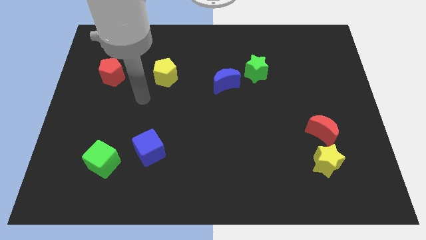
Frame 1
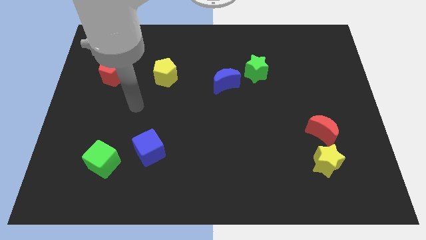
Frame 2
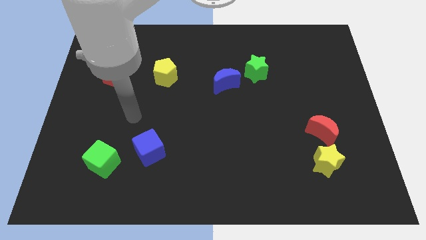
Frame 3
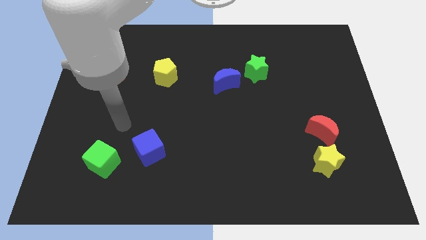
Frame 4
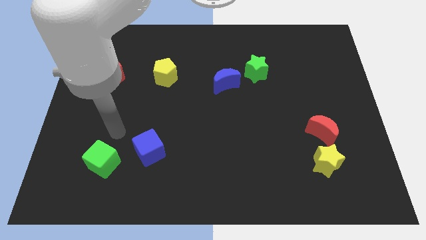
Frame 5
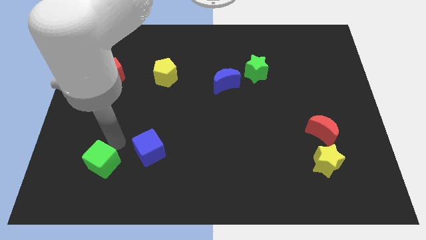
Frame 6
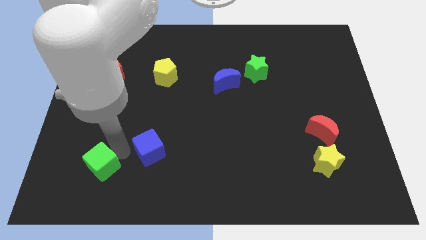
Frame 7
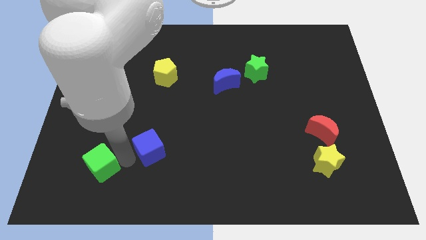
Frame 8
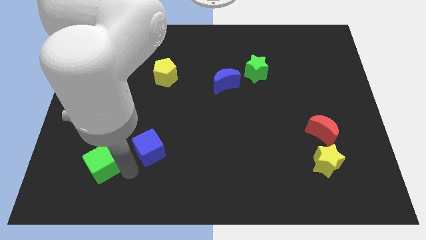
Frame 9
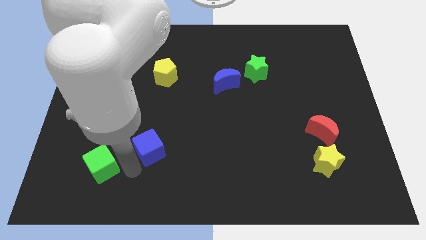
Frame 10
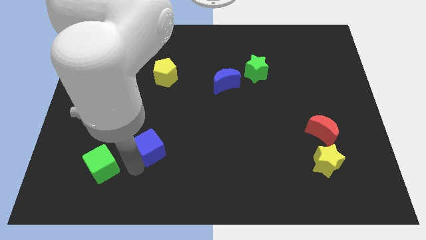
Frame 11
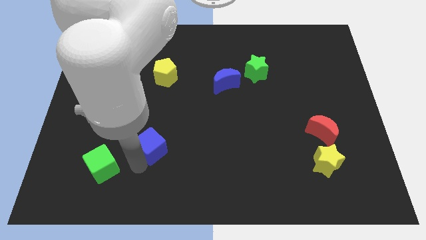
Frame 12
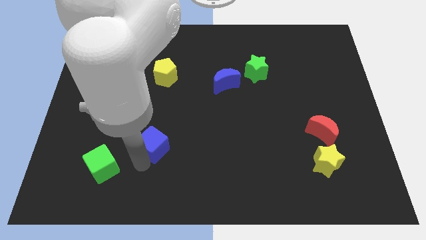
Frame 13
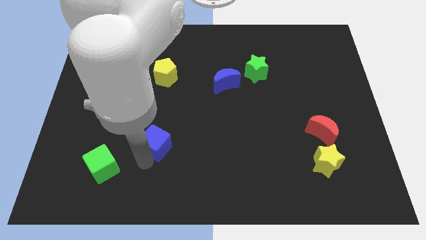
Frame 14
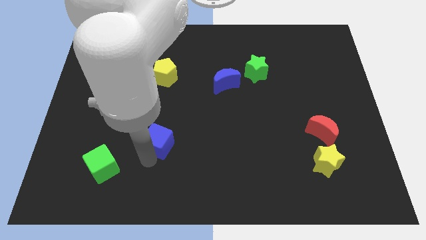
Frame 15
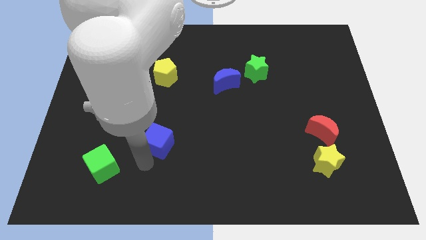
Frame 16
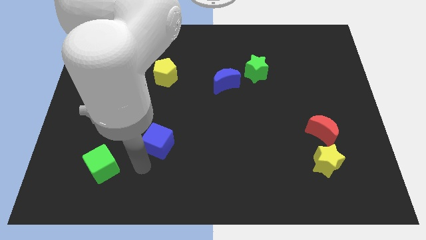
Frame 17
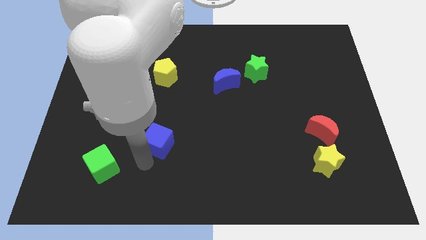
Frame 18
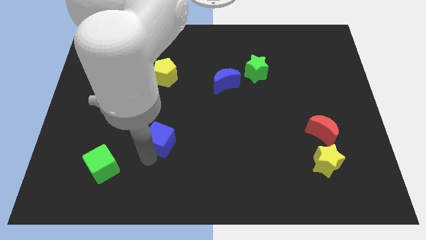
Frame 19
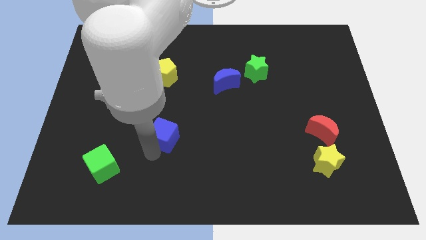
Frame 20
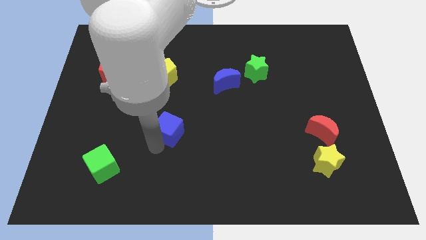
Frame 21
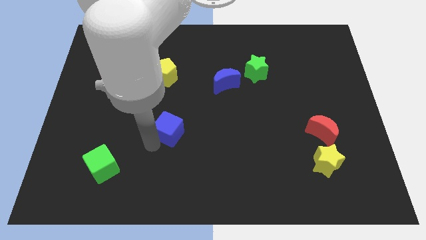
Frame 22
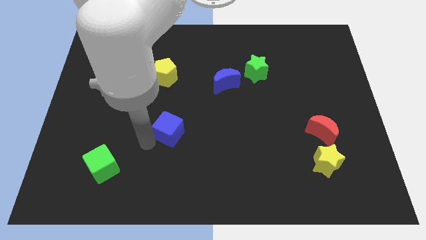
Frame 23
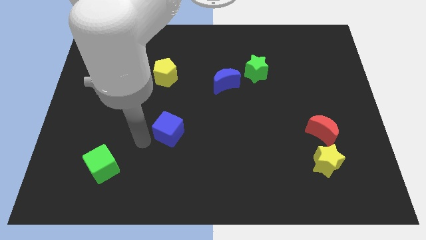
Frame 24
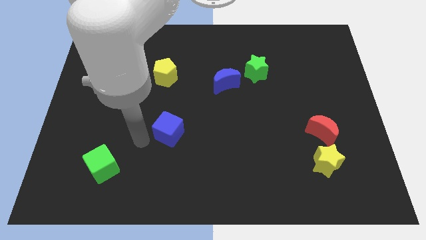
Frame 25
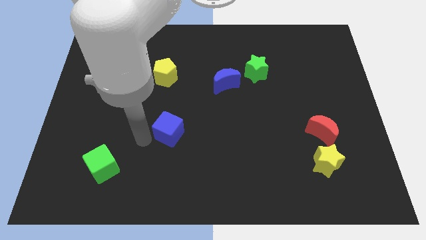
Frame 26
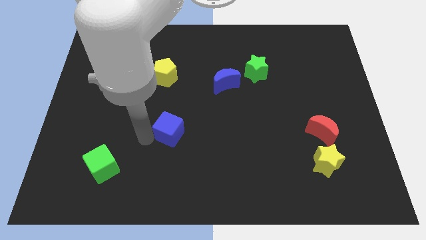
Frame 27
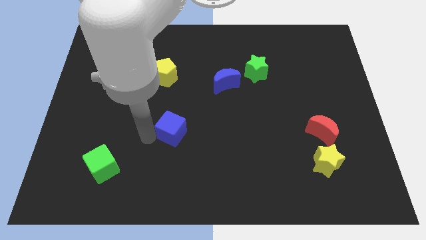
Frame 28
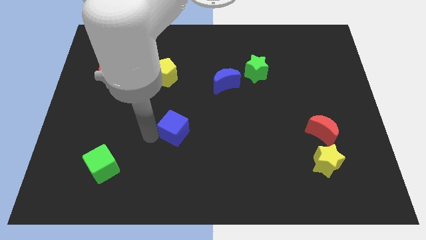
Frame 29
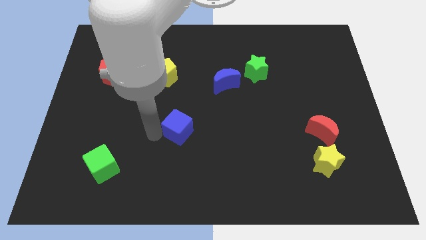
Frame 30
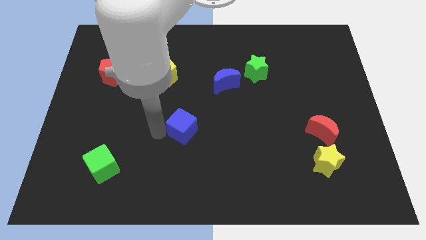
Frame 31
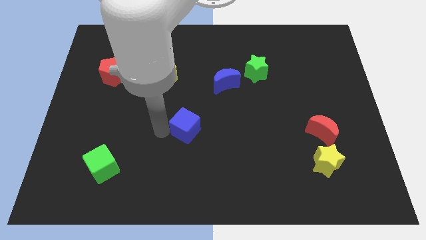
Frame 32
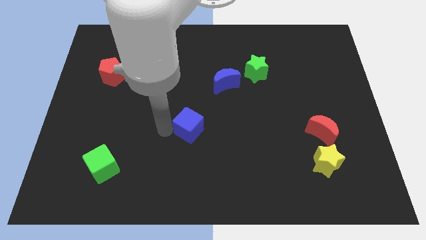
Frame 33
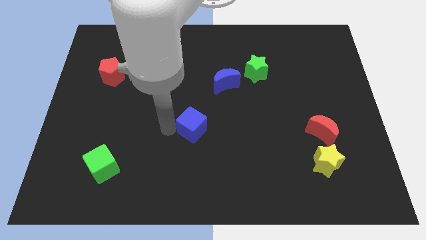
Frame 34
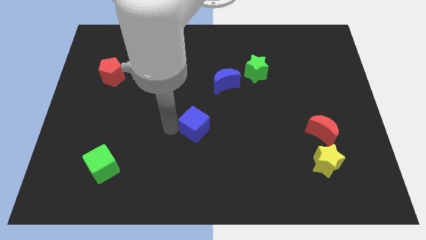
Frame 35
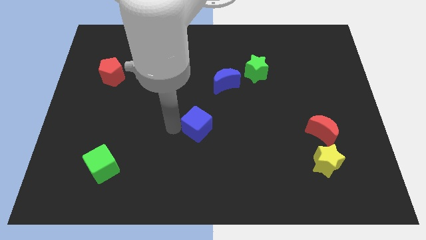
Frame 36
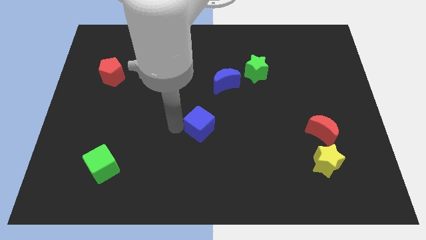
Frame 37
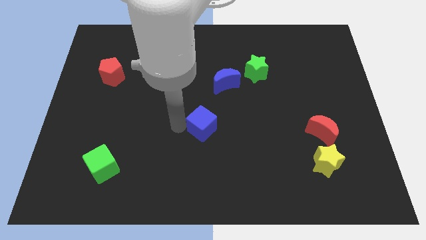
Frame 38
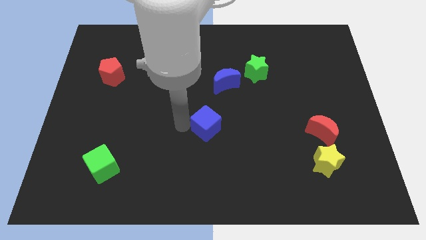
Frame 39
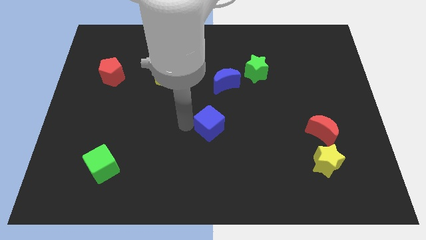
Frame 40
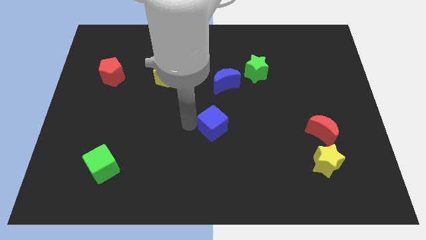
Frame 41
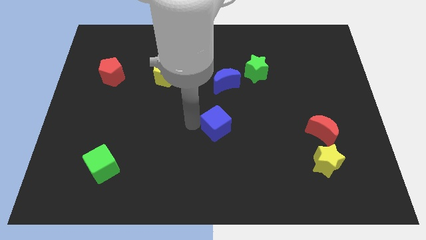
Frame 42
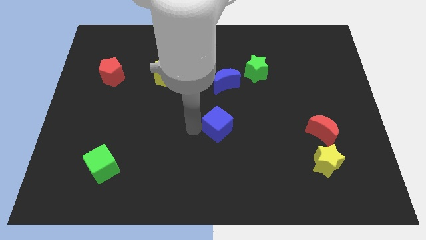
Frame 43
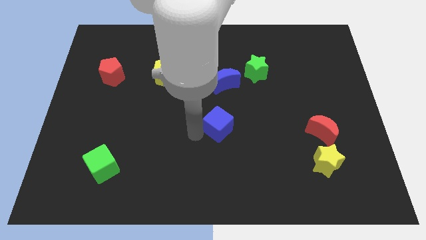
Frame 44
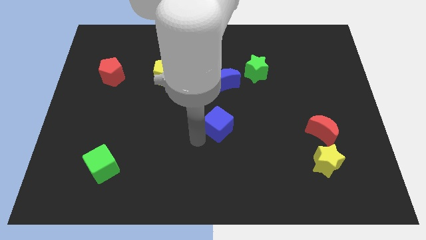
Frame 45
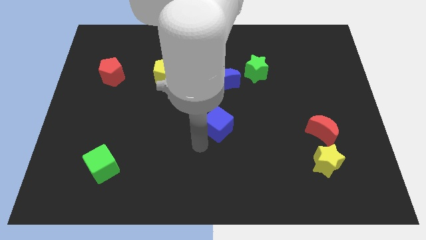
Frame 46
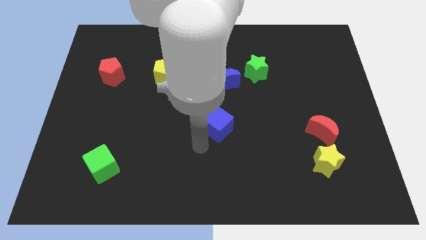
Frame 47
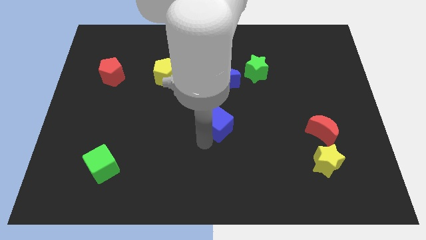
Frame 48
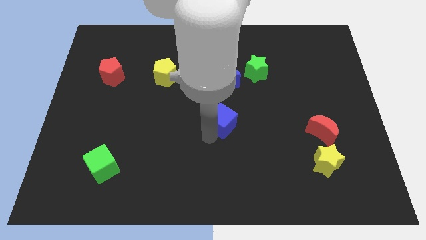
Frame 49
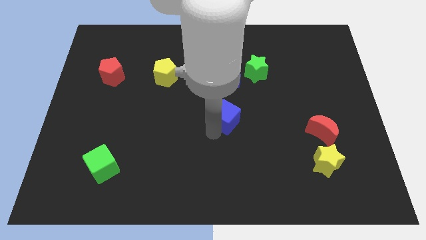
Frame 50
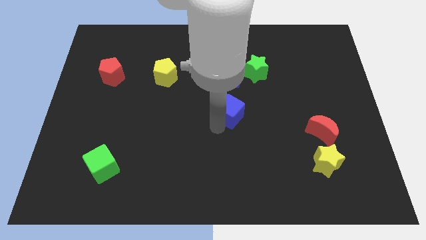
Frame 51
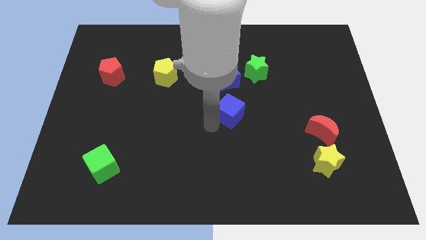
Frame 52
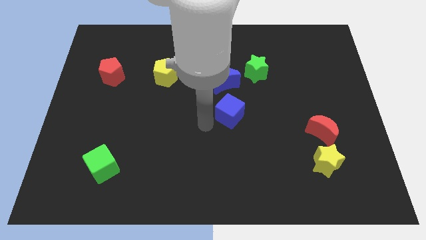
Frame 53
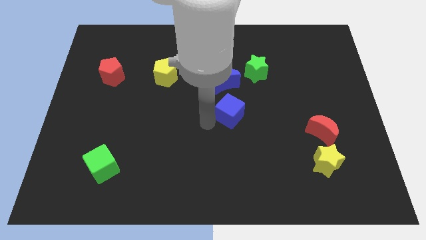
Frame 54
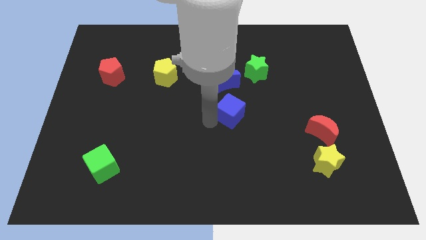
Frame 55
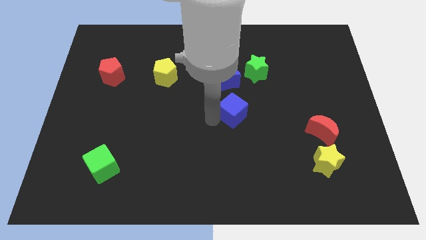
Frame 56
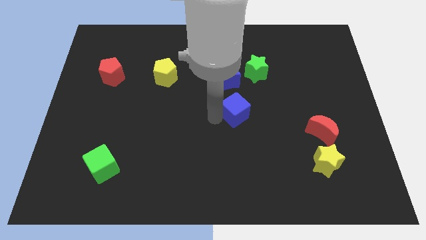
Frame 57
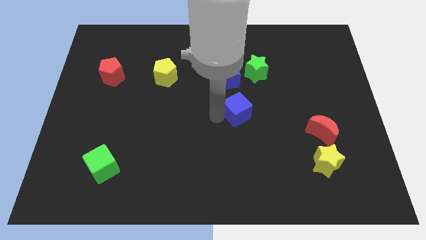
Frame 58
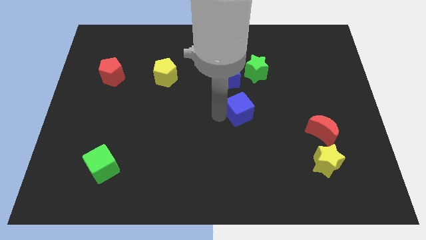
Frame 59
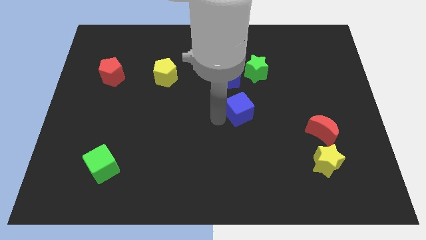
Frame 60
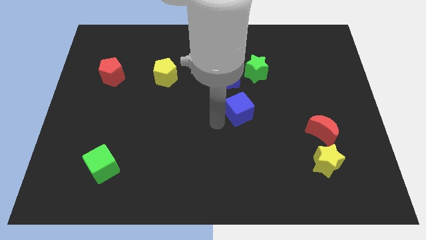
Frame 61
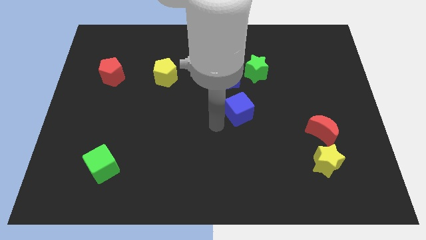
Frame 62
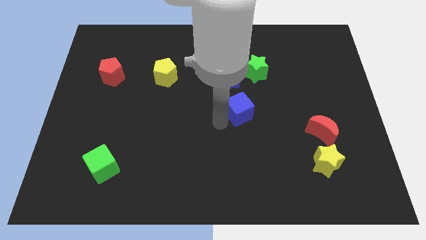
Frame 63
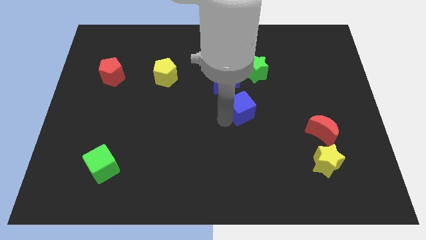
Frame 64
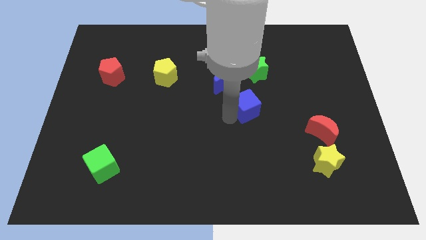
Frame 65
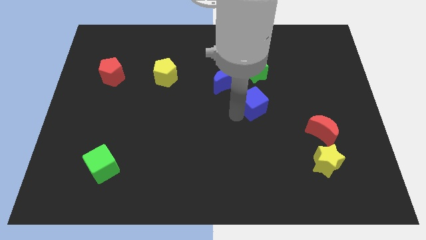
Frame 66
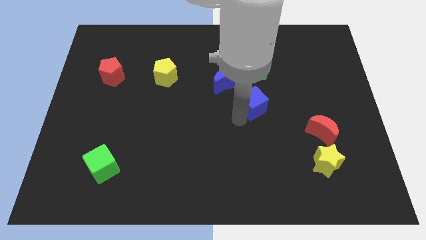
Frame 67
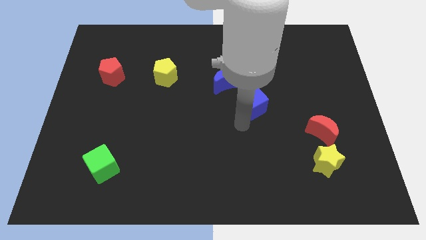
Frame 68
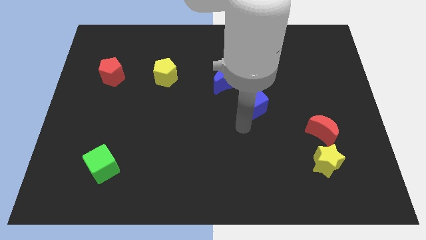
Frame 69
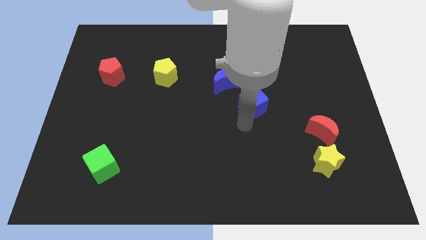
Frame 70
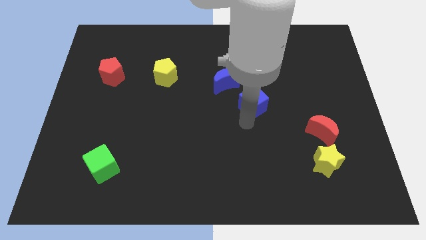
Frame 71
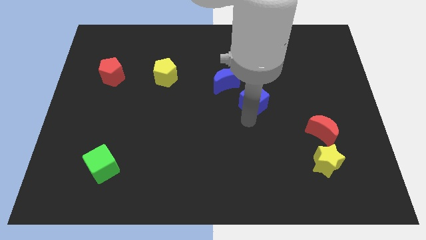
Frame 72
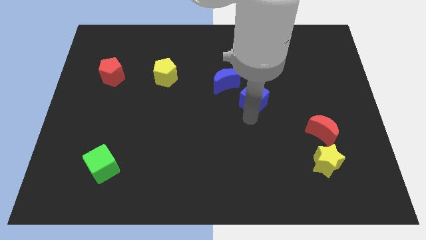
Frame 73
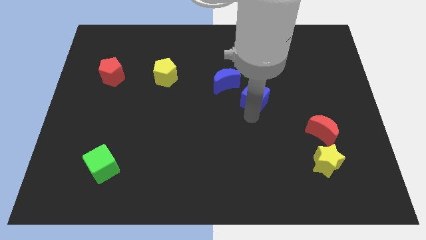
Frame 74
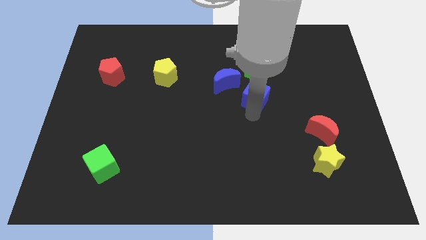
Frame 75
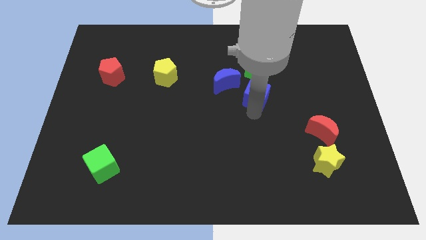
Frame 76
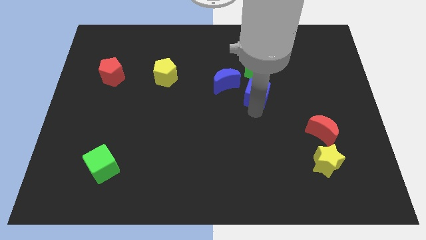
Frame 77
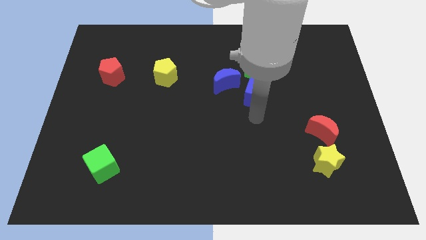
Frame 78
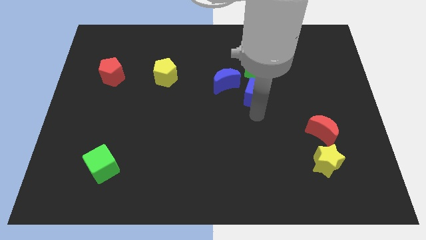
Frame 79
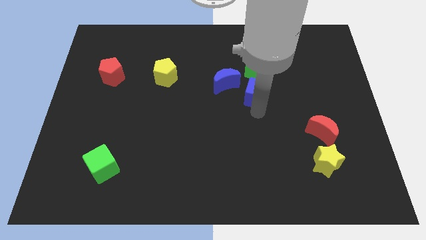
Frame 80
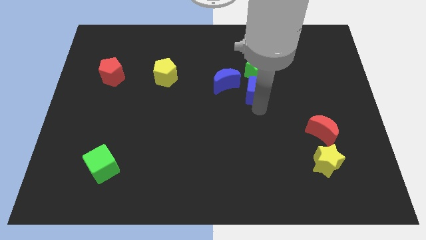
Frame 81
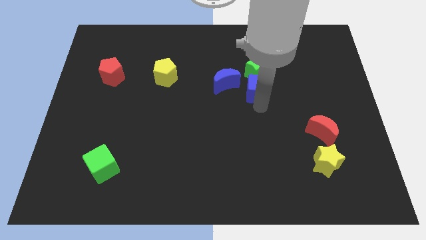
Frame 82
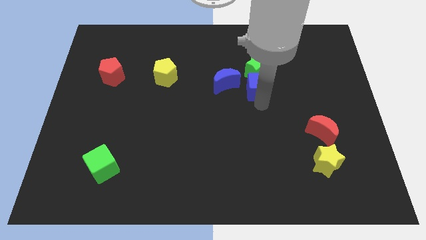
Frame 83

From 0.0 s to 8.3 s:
put the blue cube next to the green star
